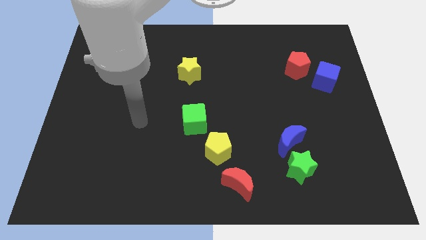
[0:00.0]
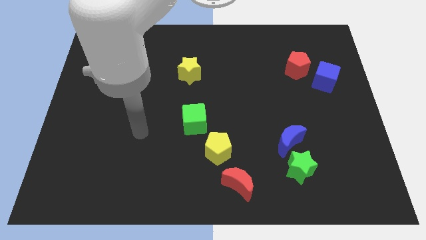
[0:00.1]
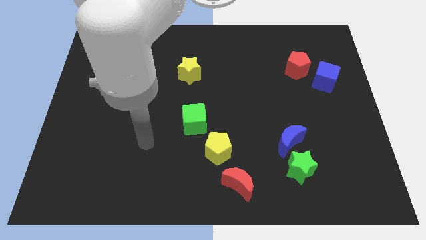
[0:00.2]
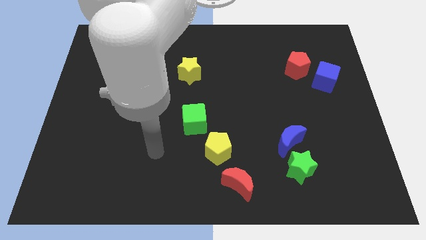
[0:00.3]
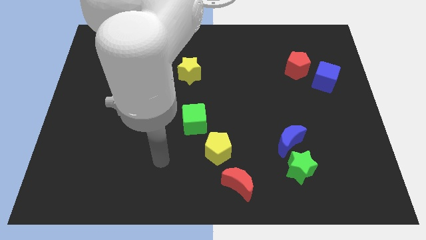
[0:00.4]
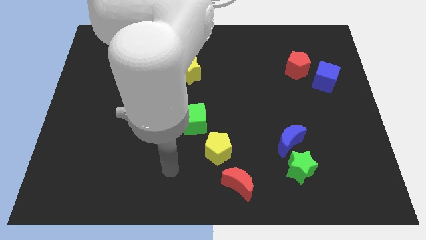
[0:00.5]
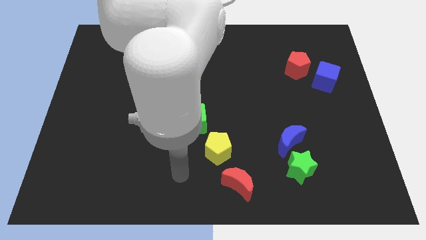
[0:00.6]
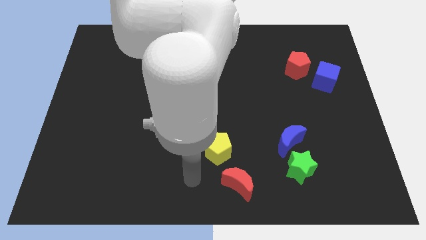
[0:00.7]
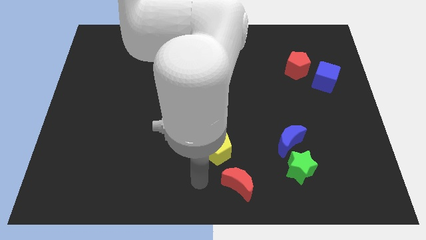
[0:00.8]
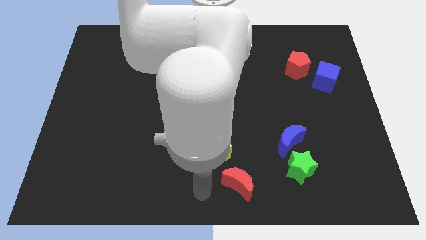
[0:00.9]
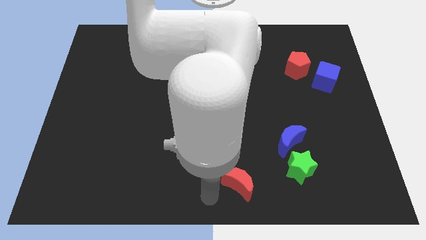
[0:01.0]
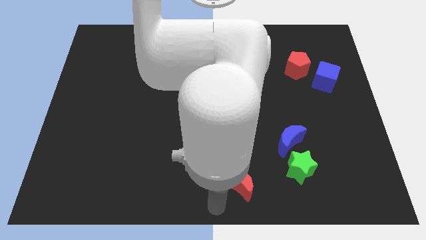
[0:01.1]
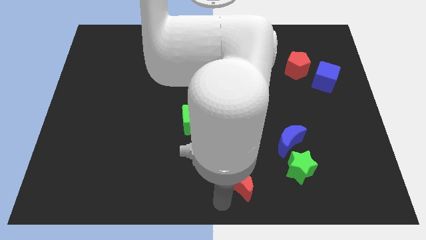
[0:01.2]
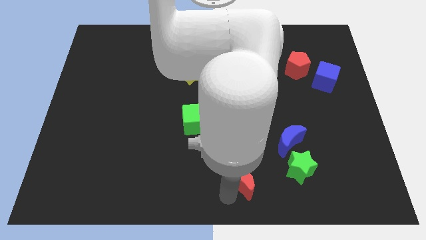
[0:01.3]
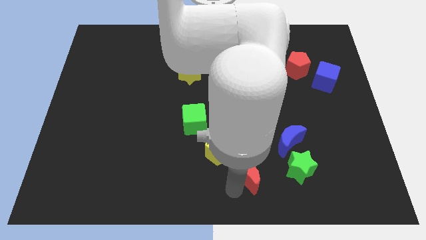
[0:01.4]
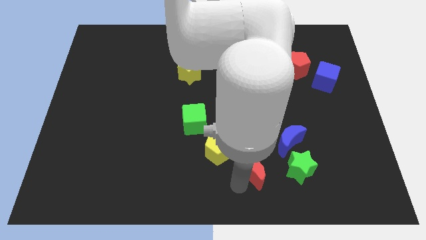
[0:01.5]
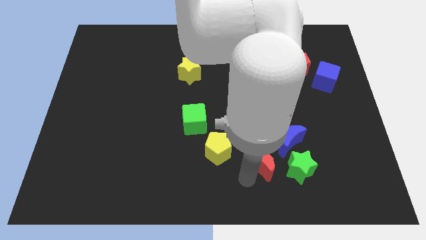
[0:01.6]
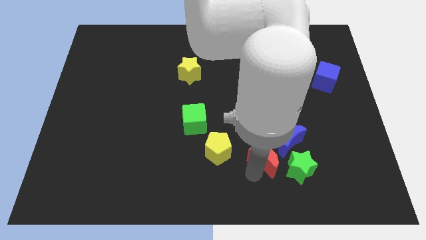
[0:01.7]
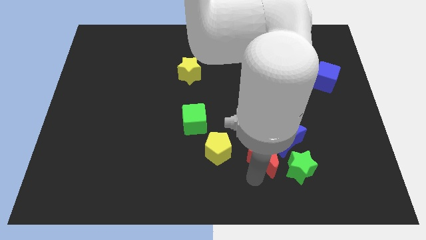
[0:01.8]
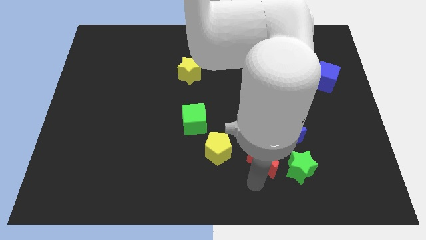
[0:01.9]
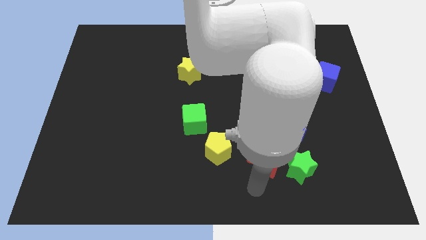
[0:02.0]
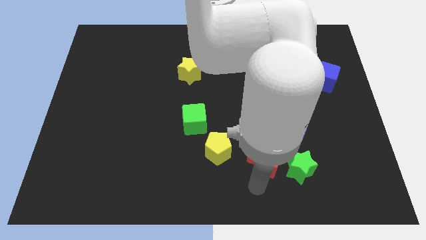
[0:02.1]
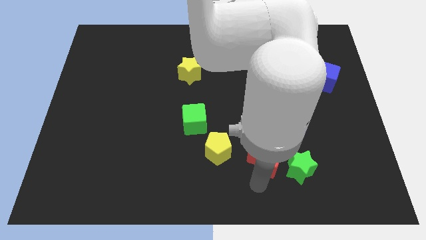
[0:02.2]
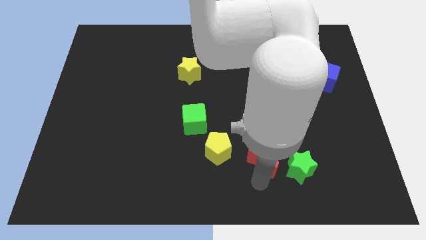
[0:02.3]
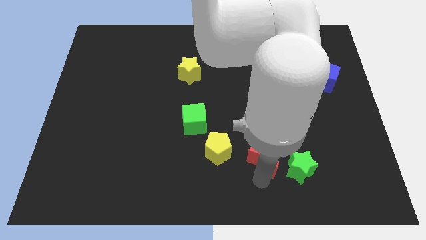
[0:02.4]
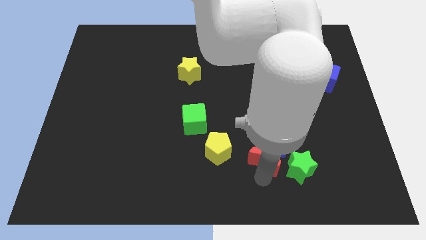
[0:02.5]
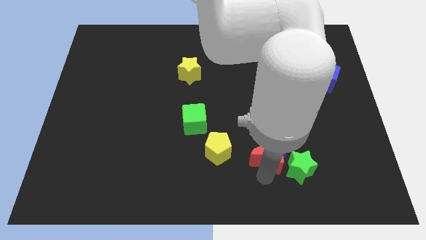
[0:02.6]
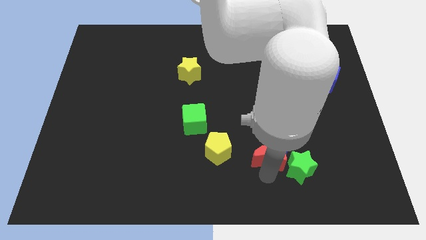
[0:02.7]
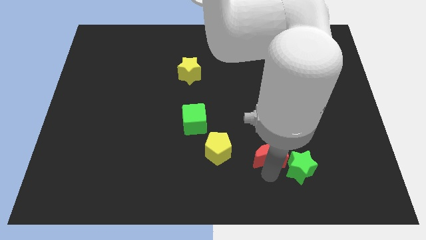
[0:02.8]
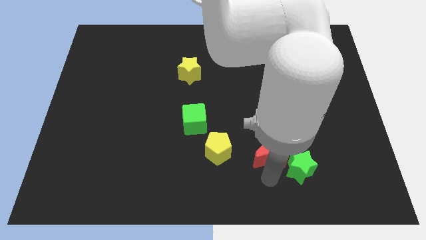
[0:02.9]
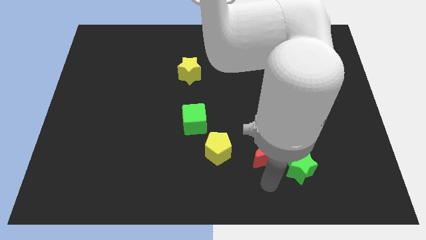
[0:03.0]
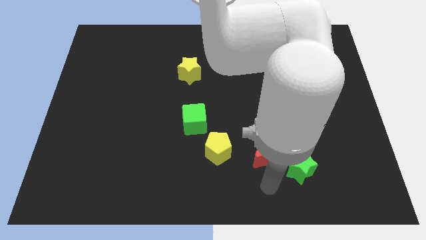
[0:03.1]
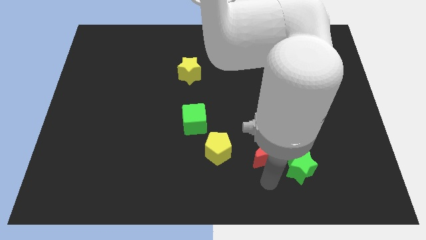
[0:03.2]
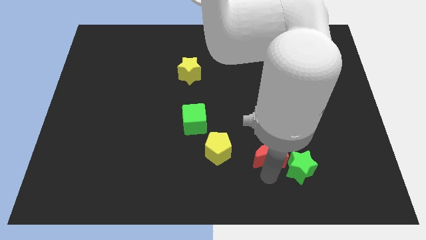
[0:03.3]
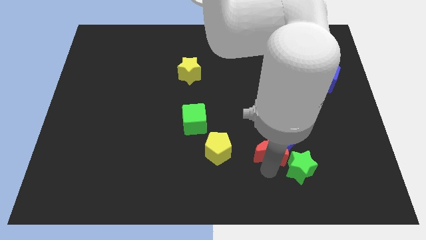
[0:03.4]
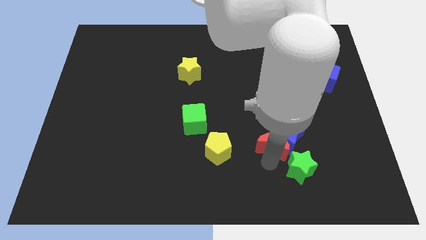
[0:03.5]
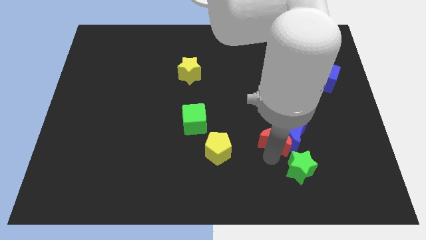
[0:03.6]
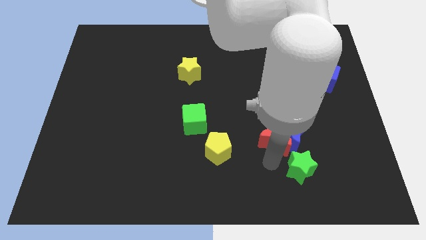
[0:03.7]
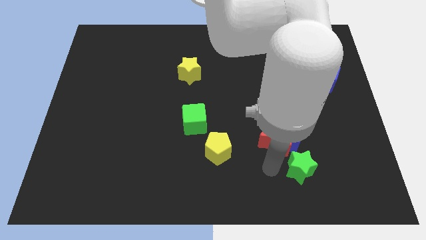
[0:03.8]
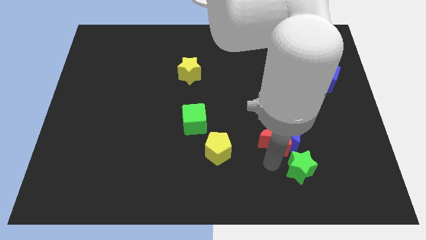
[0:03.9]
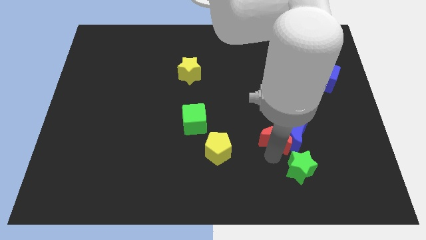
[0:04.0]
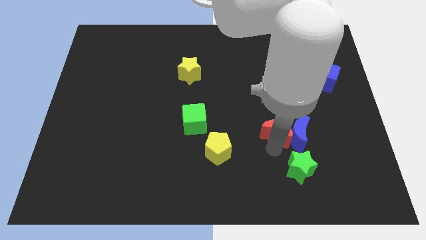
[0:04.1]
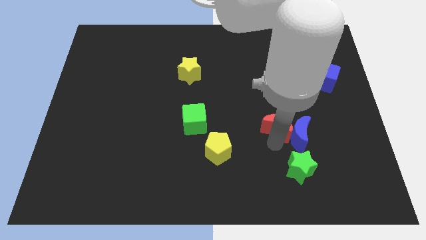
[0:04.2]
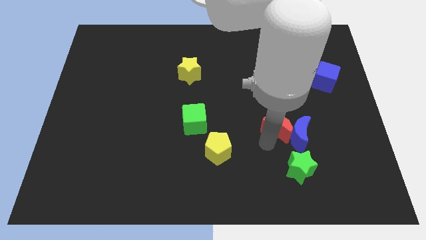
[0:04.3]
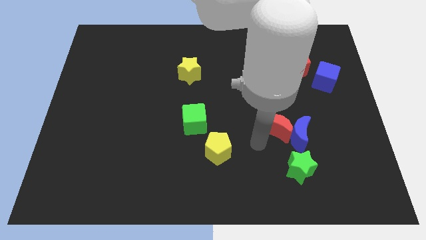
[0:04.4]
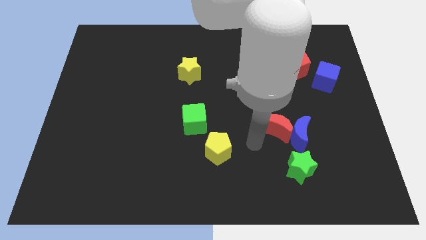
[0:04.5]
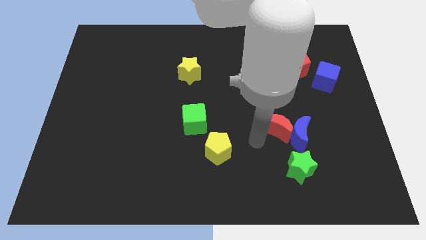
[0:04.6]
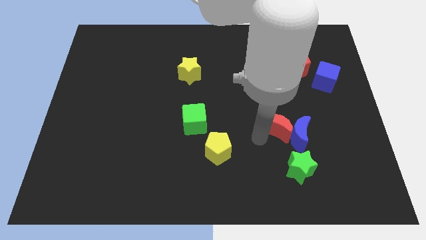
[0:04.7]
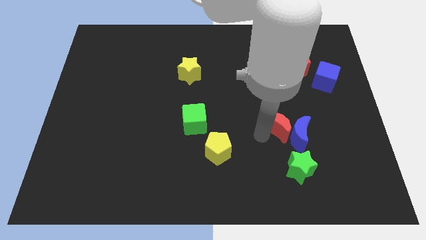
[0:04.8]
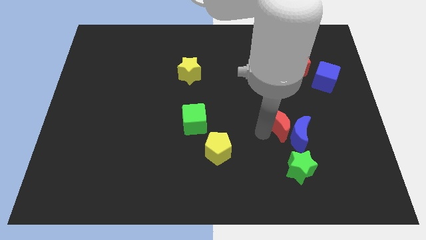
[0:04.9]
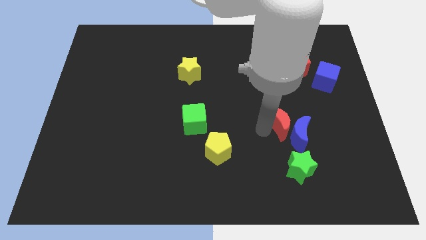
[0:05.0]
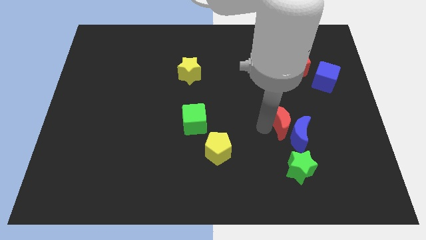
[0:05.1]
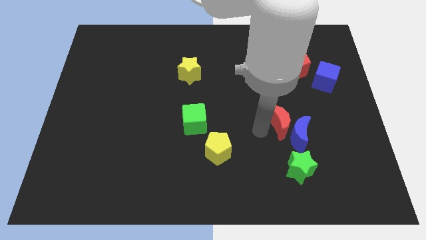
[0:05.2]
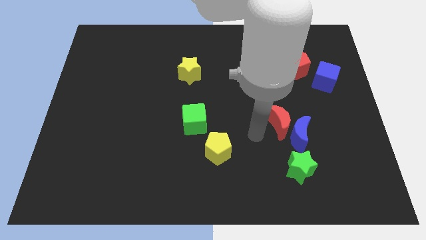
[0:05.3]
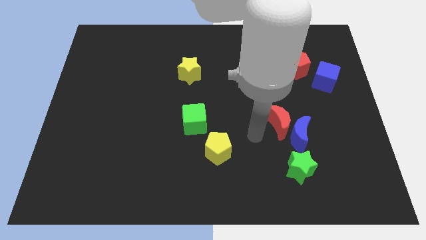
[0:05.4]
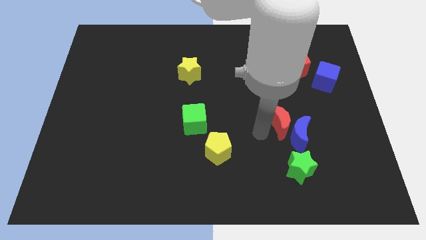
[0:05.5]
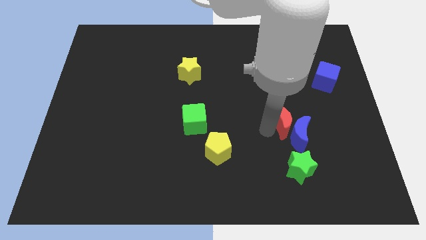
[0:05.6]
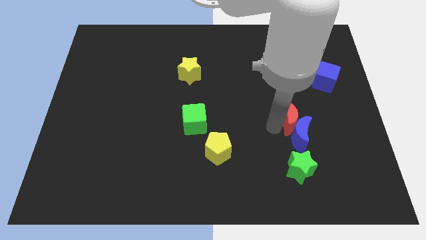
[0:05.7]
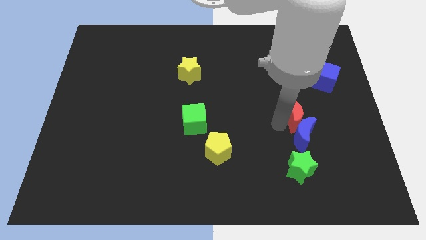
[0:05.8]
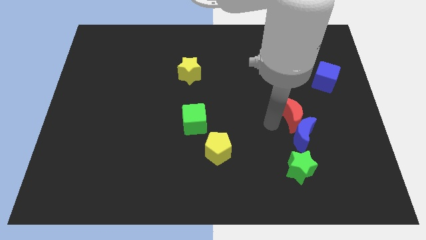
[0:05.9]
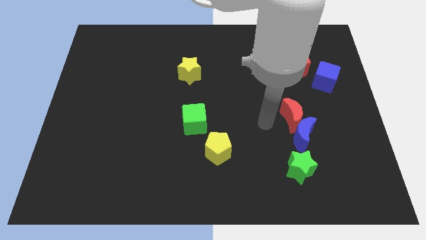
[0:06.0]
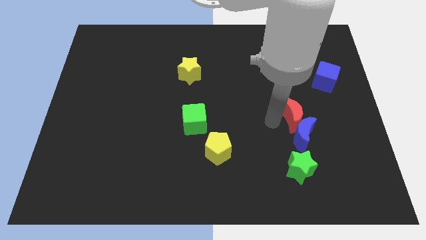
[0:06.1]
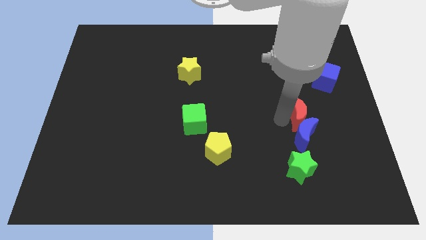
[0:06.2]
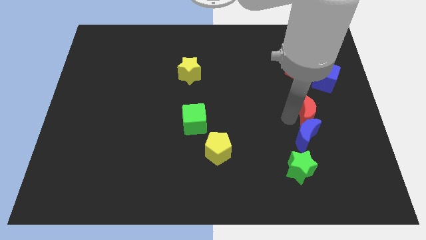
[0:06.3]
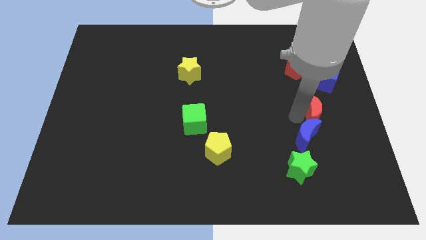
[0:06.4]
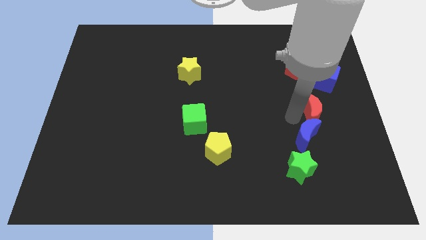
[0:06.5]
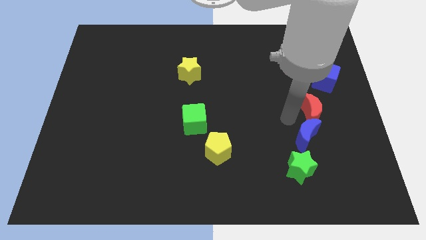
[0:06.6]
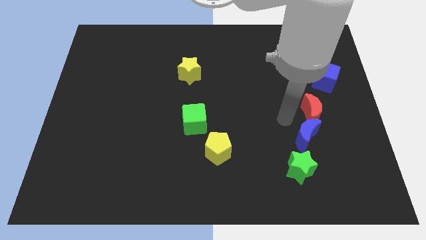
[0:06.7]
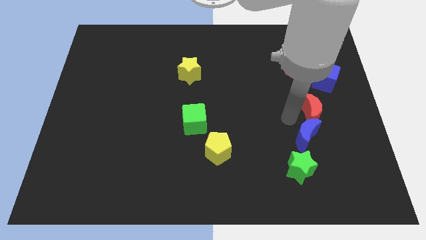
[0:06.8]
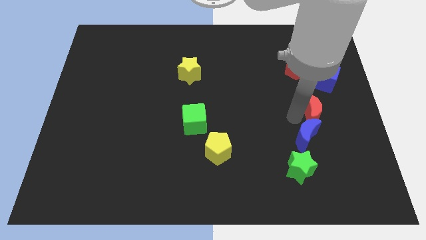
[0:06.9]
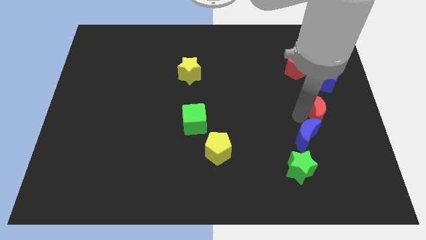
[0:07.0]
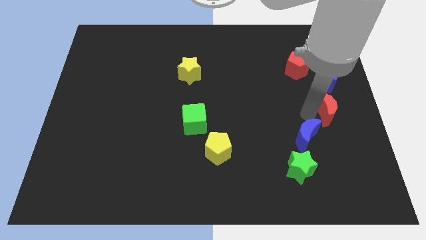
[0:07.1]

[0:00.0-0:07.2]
put the red moon to the right side of the board
